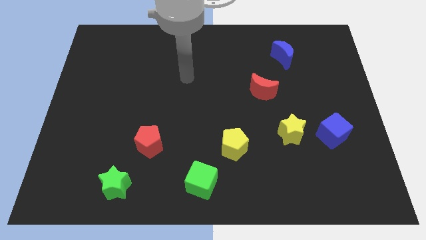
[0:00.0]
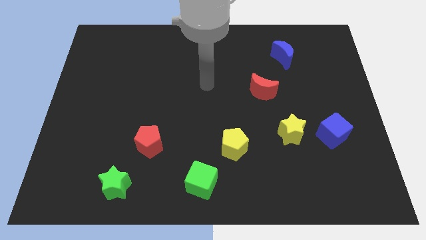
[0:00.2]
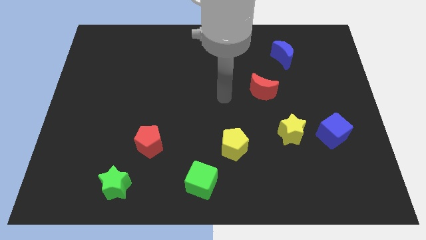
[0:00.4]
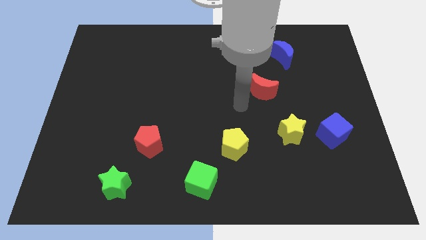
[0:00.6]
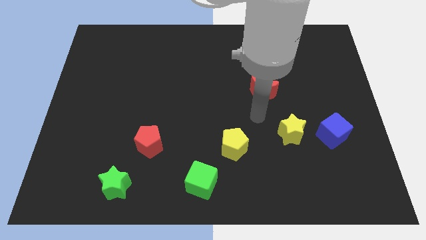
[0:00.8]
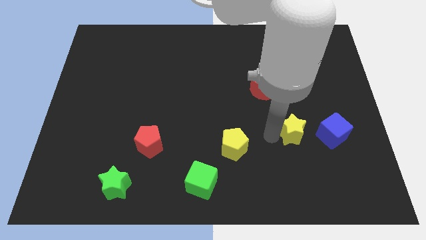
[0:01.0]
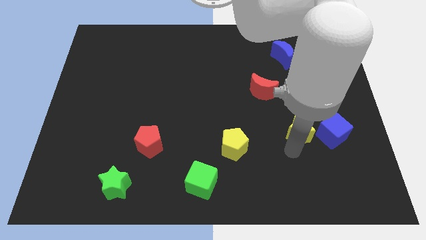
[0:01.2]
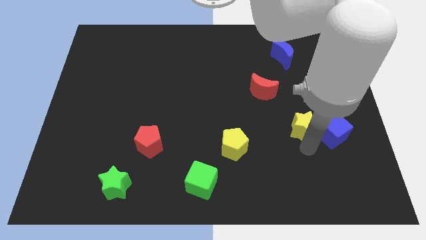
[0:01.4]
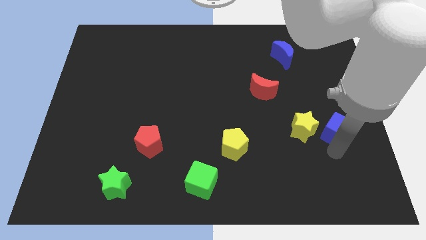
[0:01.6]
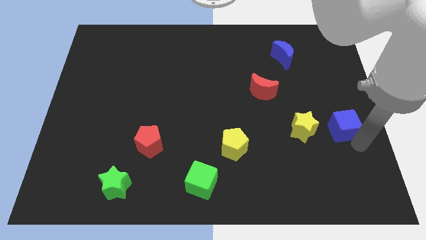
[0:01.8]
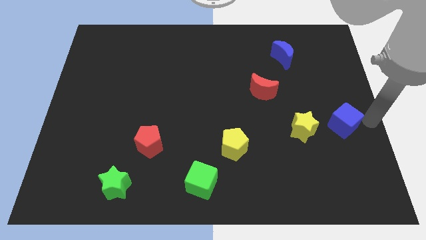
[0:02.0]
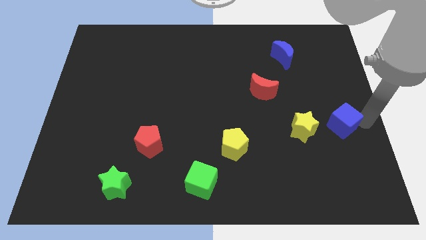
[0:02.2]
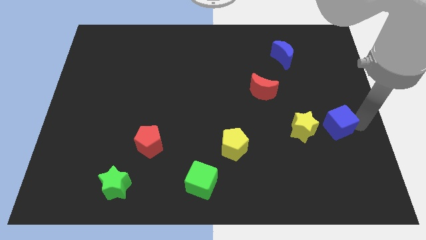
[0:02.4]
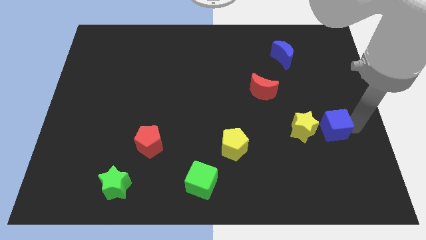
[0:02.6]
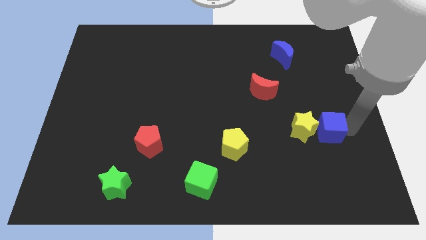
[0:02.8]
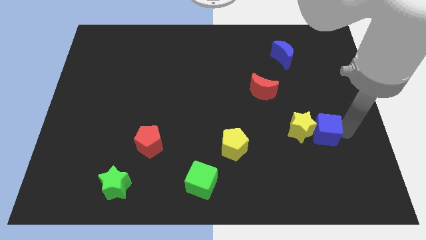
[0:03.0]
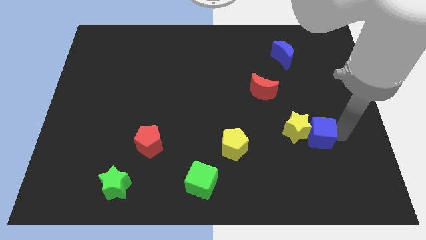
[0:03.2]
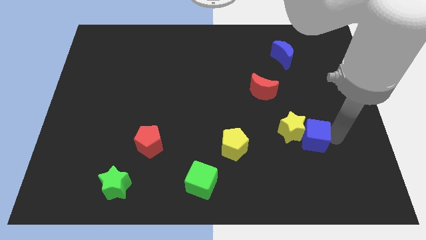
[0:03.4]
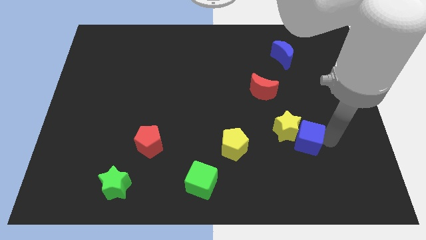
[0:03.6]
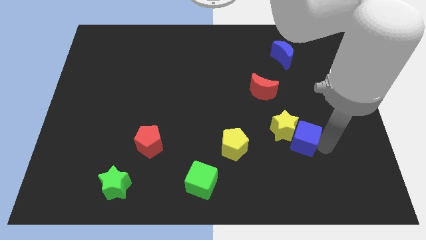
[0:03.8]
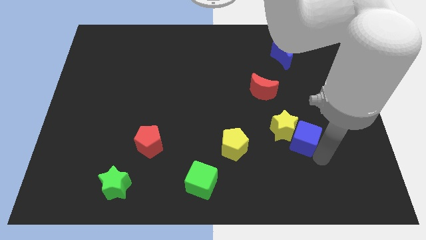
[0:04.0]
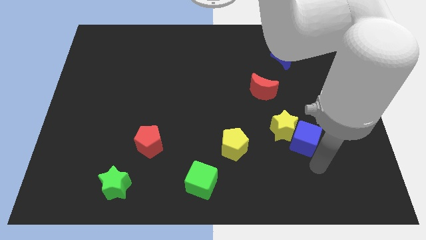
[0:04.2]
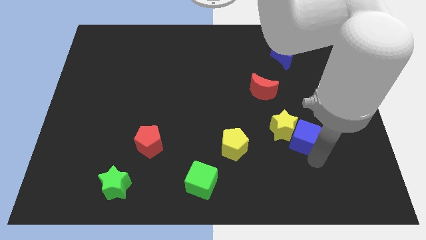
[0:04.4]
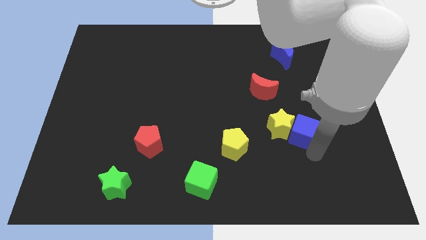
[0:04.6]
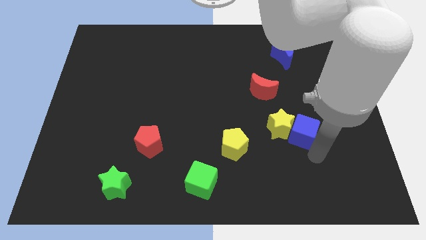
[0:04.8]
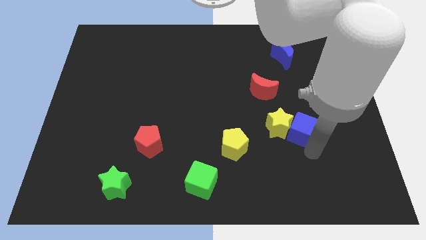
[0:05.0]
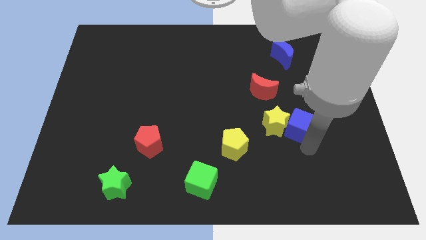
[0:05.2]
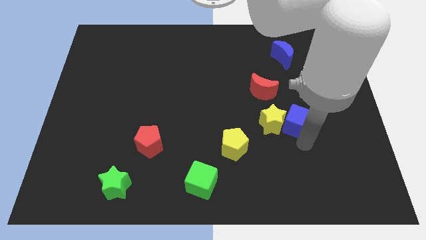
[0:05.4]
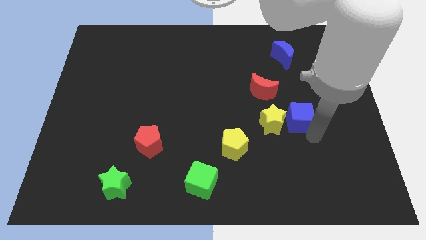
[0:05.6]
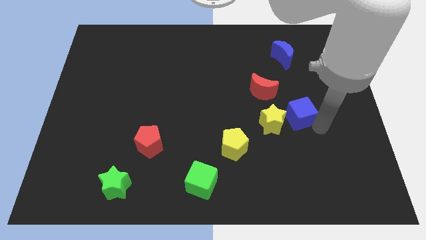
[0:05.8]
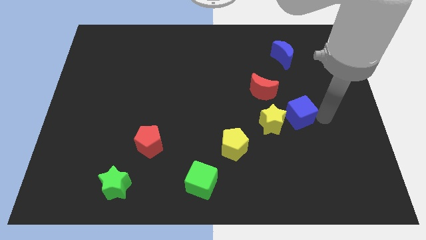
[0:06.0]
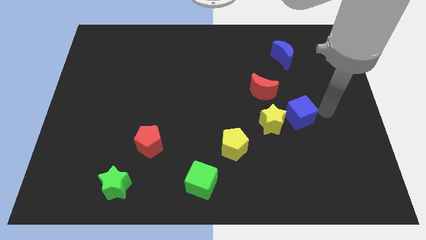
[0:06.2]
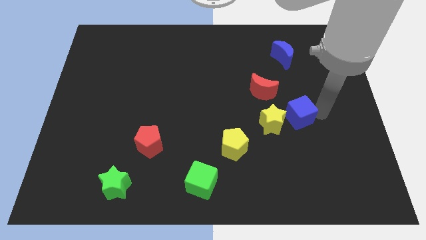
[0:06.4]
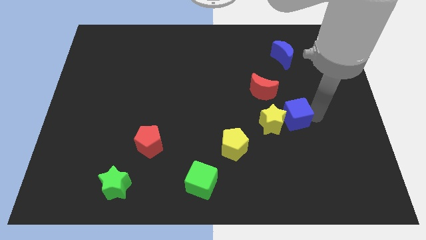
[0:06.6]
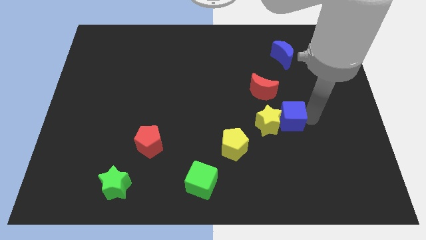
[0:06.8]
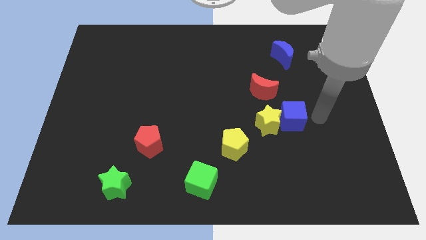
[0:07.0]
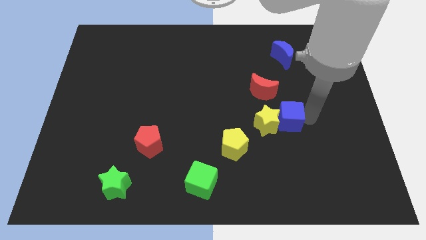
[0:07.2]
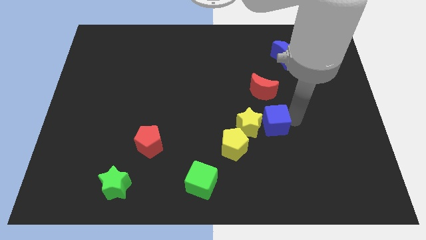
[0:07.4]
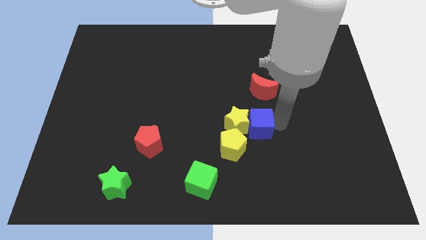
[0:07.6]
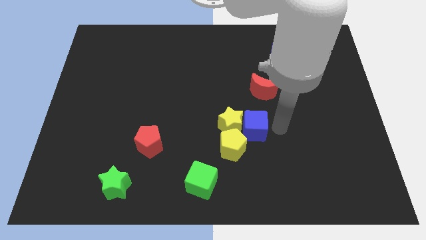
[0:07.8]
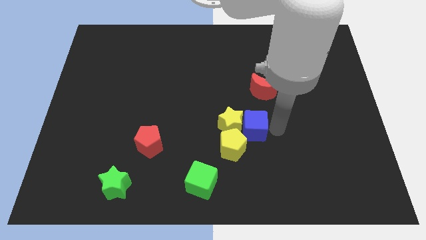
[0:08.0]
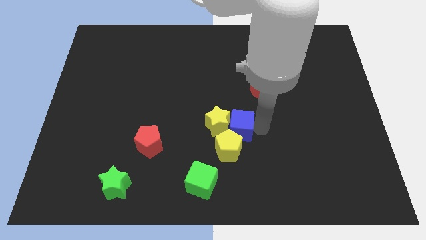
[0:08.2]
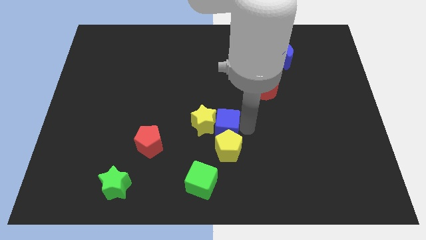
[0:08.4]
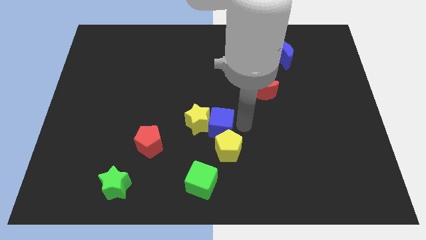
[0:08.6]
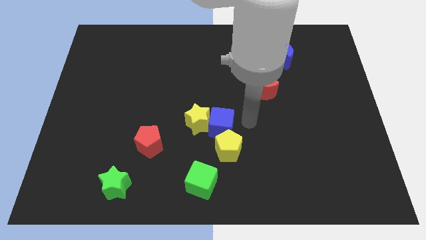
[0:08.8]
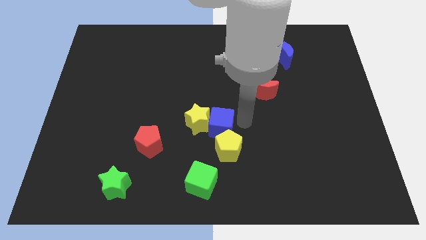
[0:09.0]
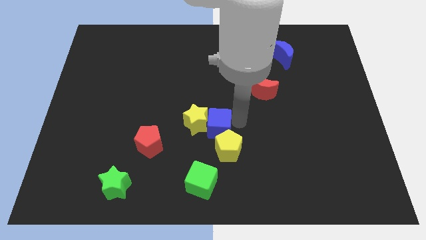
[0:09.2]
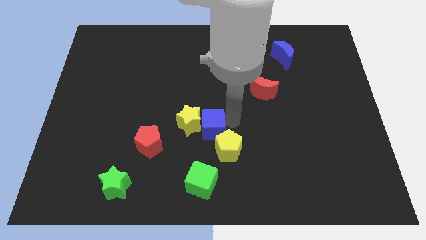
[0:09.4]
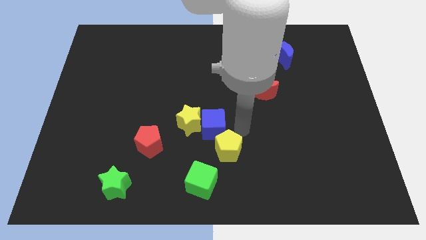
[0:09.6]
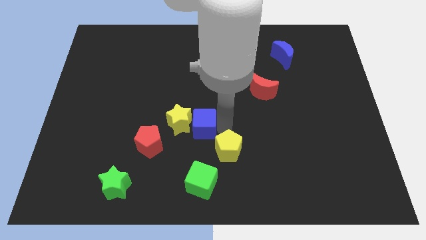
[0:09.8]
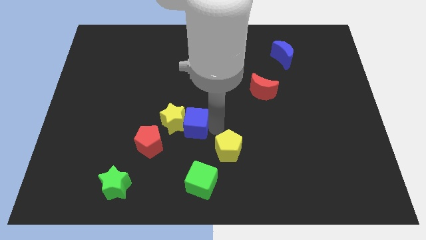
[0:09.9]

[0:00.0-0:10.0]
move the blue cube to the top right of the red pentagon

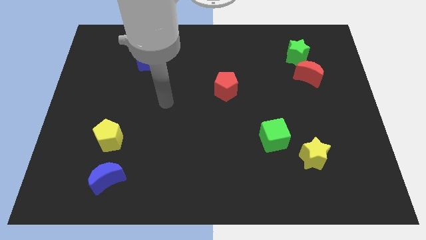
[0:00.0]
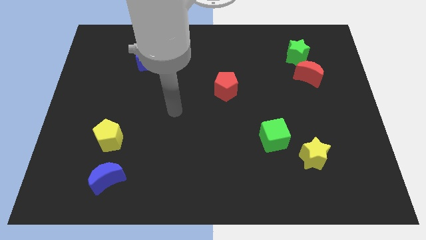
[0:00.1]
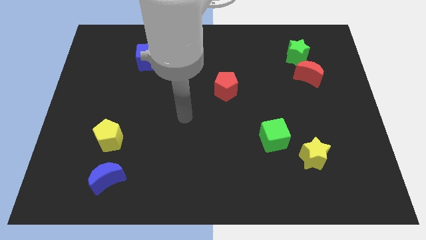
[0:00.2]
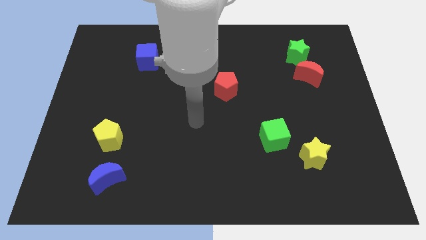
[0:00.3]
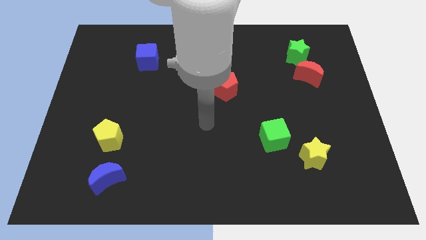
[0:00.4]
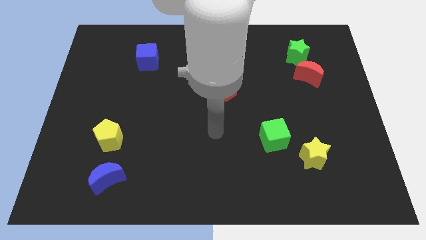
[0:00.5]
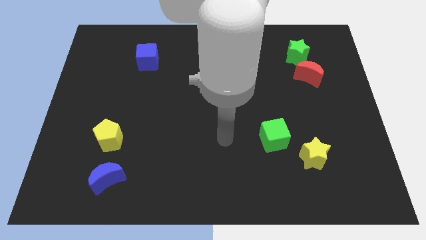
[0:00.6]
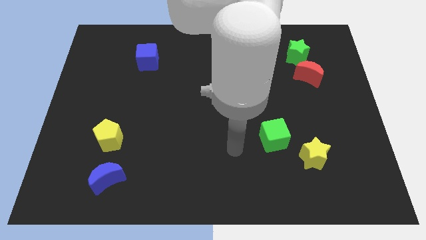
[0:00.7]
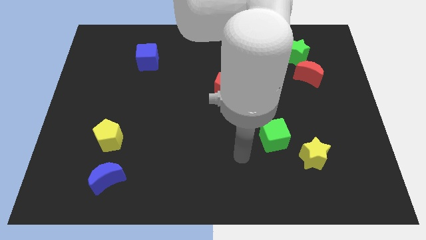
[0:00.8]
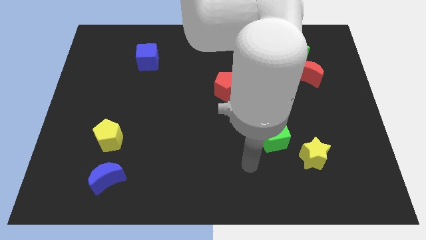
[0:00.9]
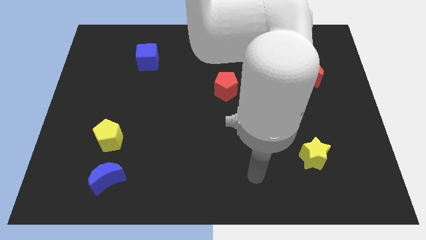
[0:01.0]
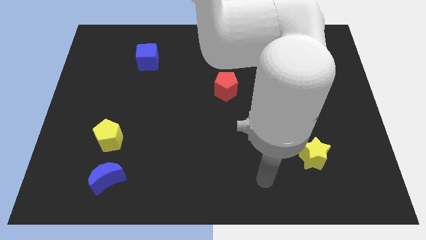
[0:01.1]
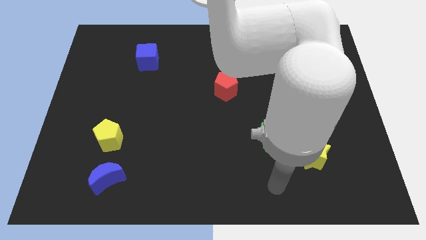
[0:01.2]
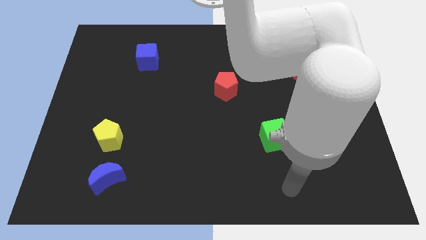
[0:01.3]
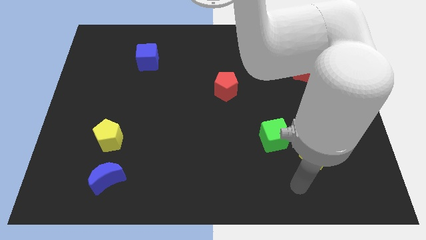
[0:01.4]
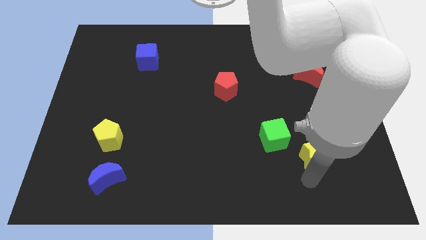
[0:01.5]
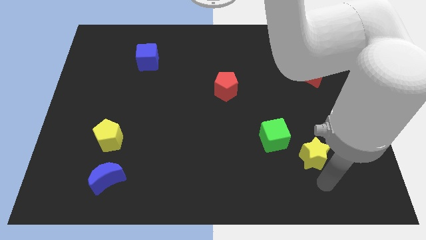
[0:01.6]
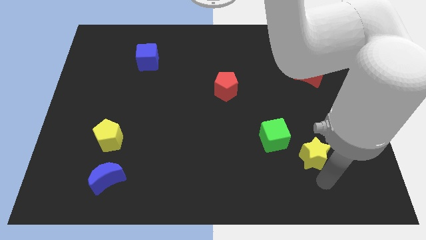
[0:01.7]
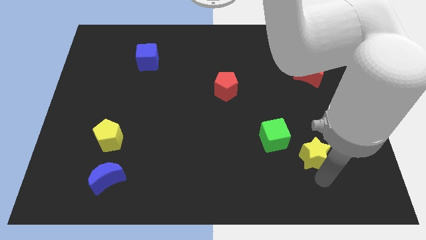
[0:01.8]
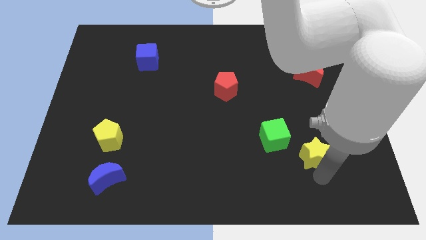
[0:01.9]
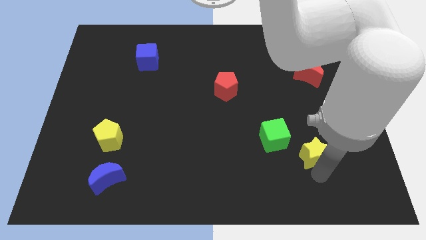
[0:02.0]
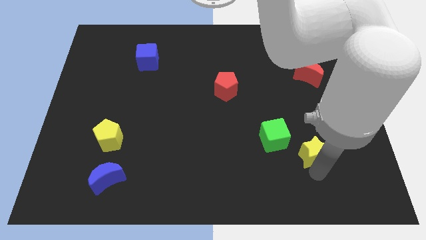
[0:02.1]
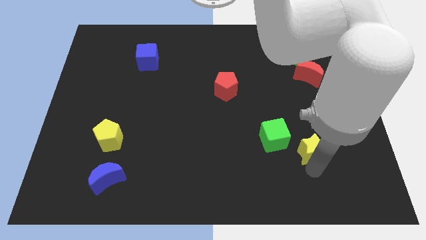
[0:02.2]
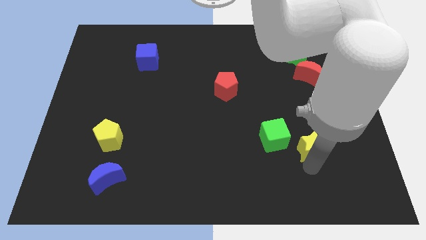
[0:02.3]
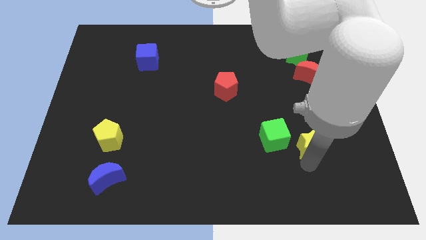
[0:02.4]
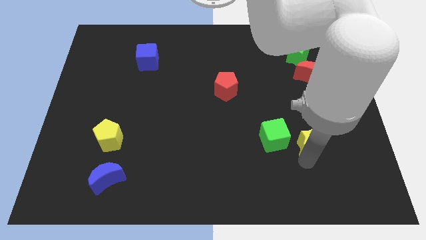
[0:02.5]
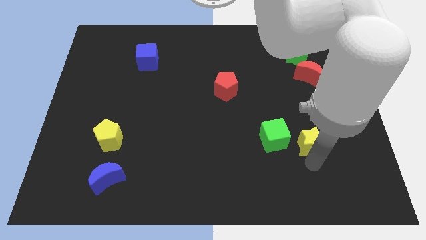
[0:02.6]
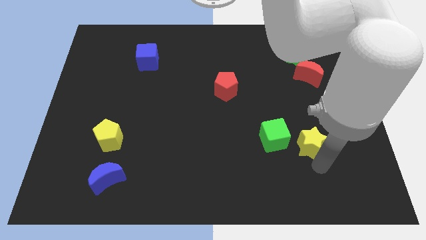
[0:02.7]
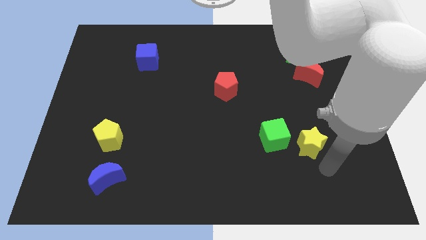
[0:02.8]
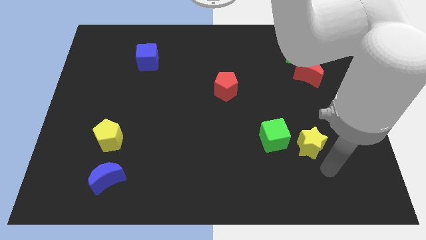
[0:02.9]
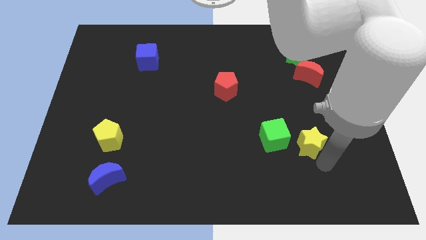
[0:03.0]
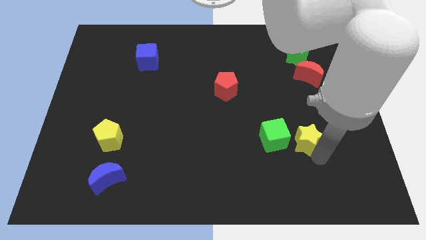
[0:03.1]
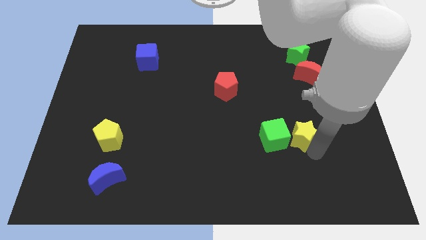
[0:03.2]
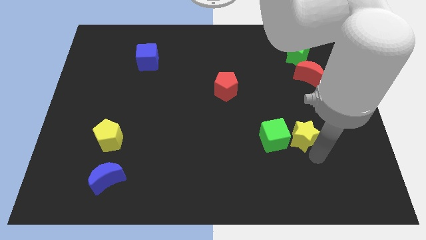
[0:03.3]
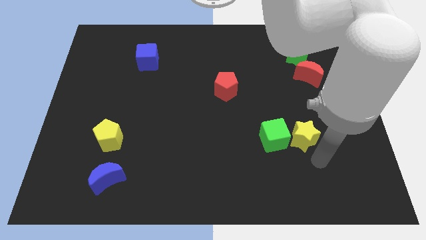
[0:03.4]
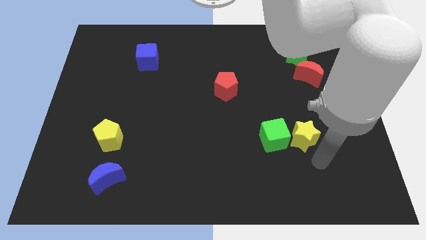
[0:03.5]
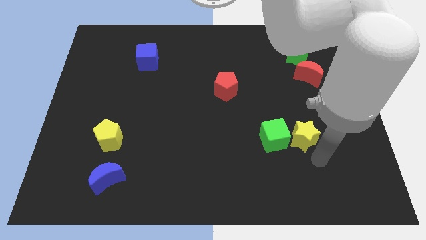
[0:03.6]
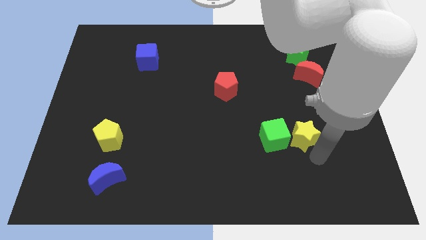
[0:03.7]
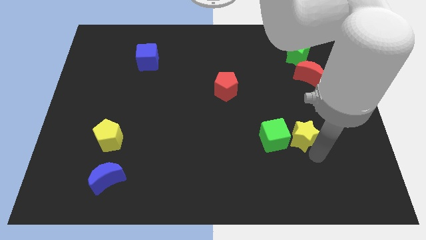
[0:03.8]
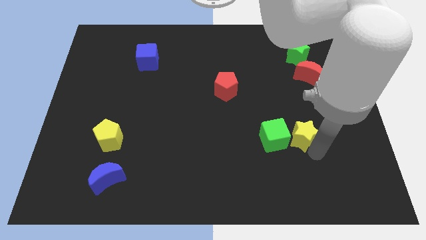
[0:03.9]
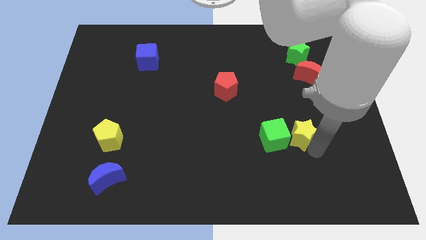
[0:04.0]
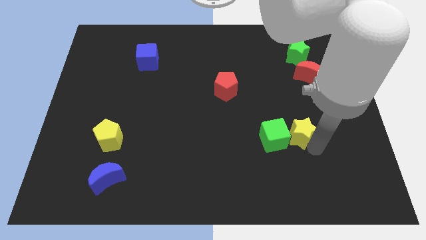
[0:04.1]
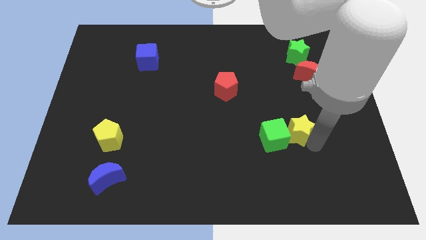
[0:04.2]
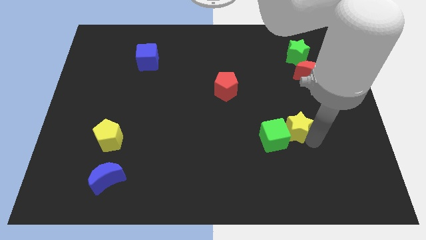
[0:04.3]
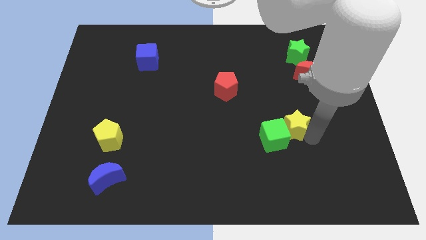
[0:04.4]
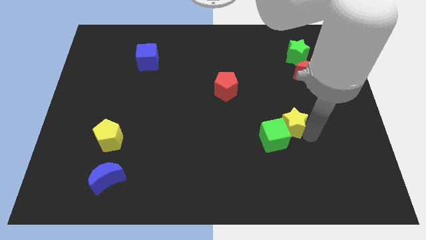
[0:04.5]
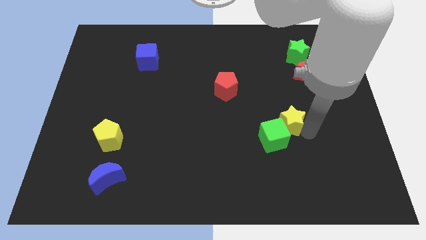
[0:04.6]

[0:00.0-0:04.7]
move the yellow star above the green cube
